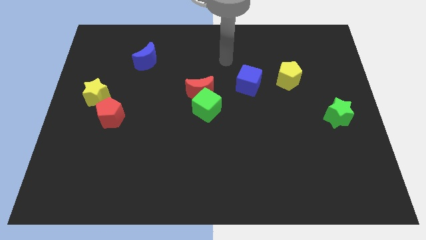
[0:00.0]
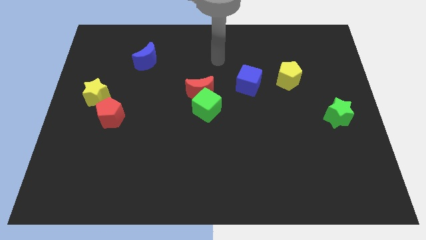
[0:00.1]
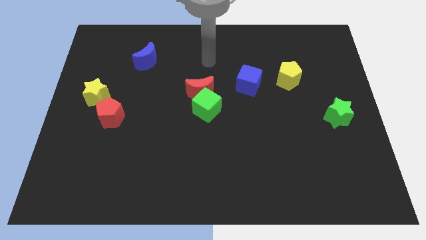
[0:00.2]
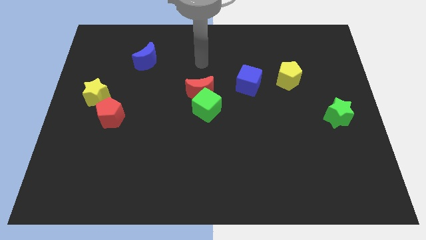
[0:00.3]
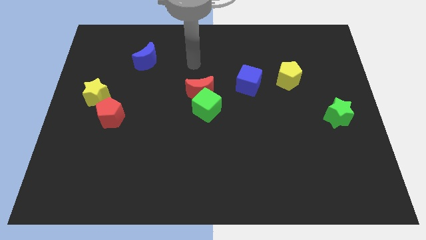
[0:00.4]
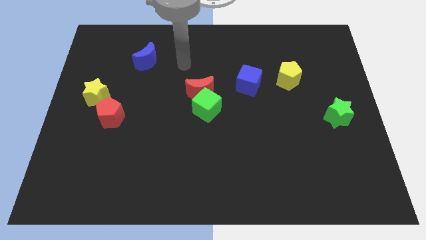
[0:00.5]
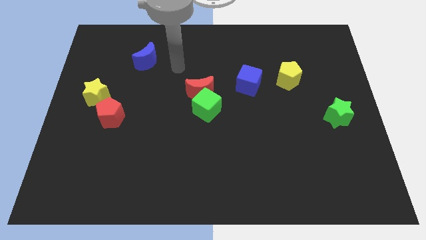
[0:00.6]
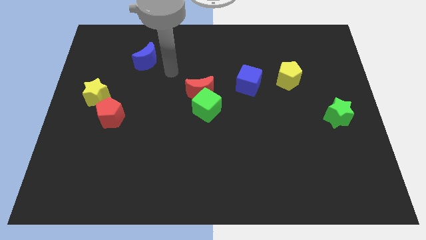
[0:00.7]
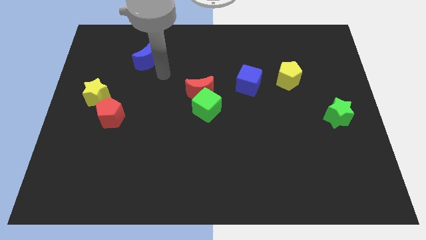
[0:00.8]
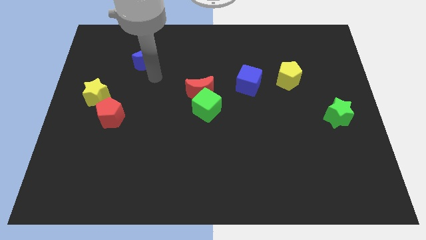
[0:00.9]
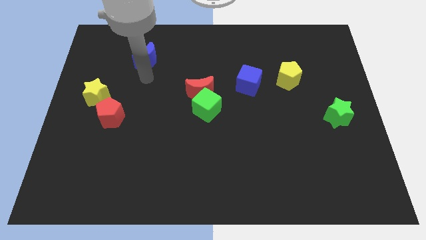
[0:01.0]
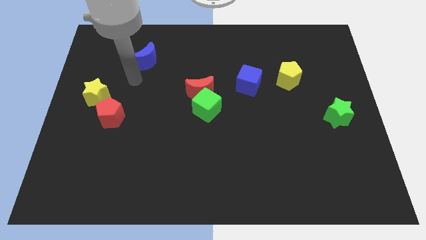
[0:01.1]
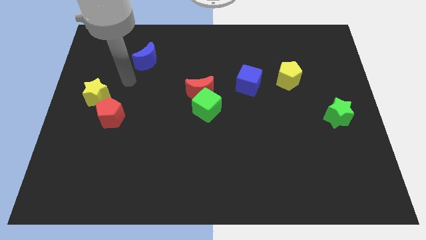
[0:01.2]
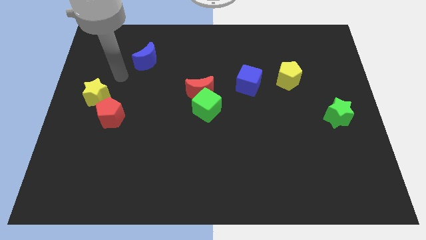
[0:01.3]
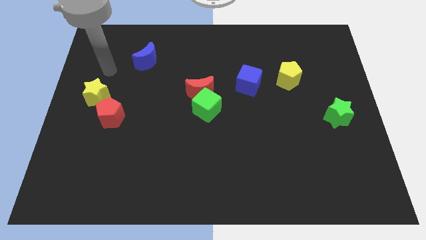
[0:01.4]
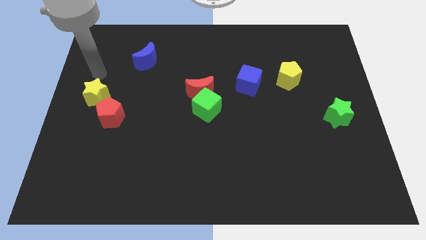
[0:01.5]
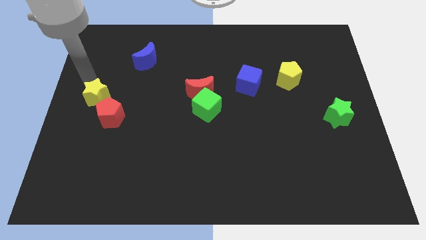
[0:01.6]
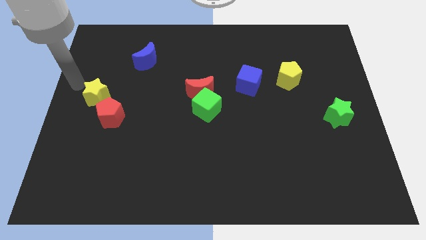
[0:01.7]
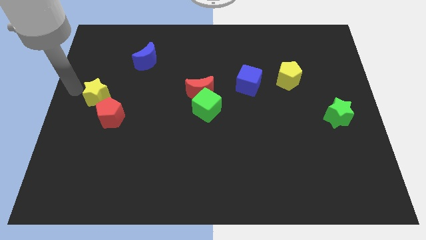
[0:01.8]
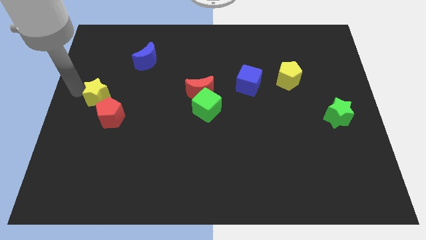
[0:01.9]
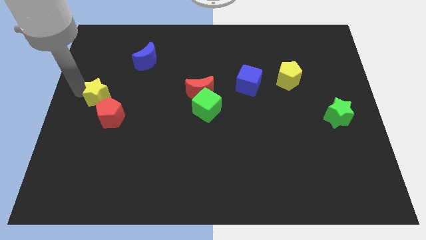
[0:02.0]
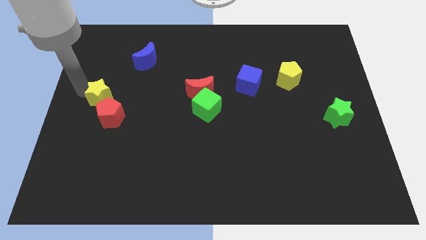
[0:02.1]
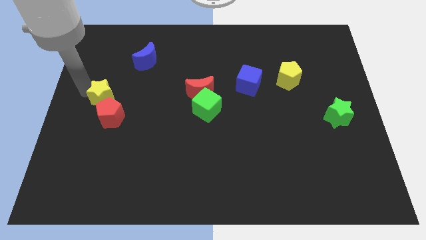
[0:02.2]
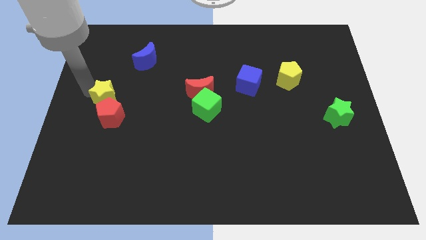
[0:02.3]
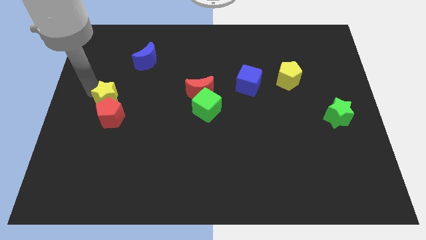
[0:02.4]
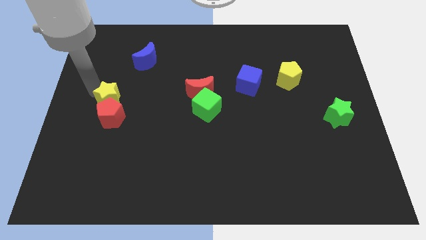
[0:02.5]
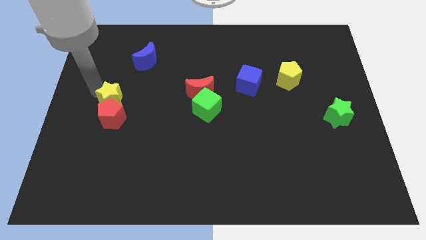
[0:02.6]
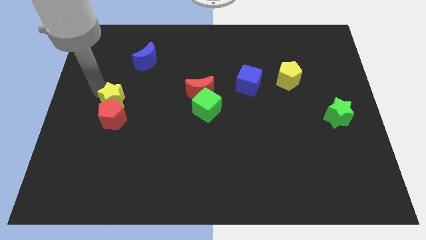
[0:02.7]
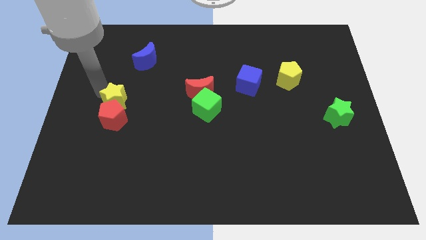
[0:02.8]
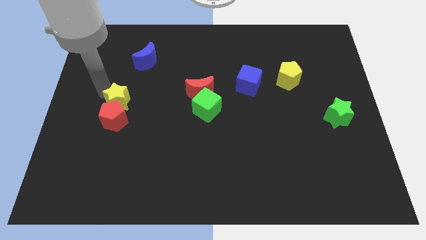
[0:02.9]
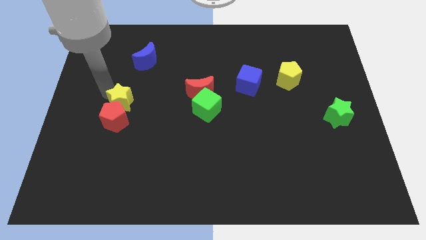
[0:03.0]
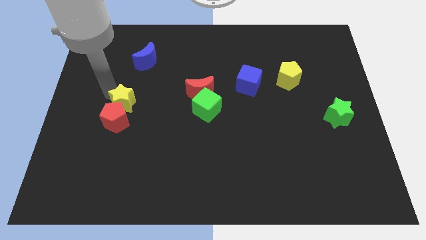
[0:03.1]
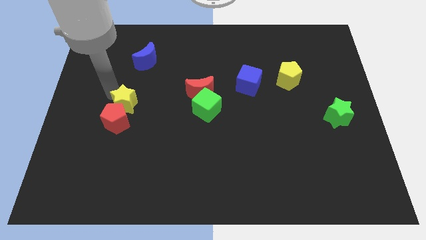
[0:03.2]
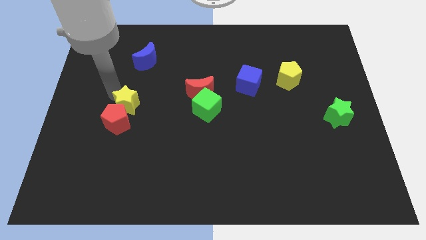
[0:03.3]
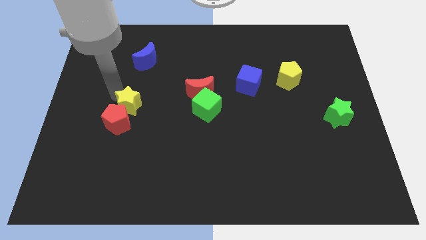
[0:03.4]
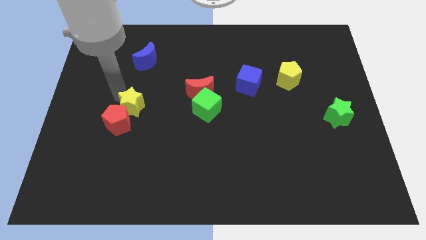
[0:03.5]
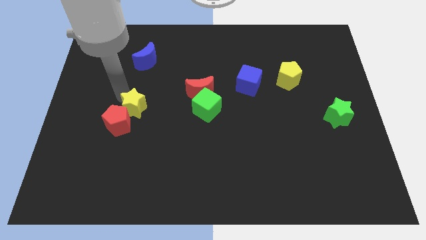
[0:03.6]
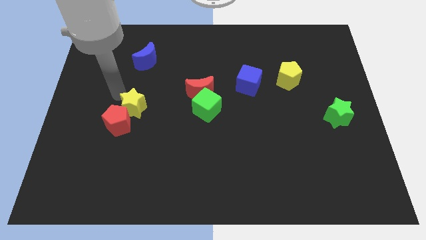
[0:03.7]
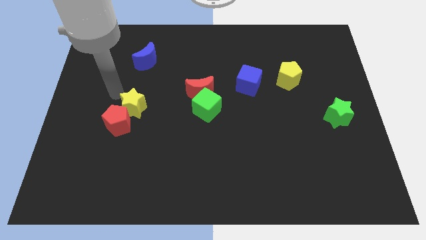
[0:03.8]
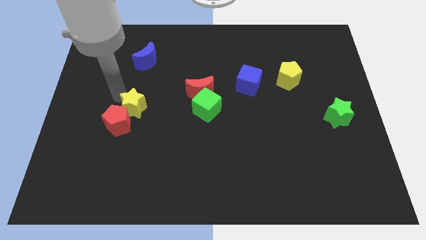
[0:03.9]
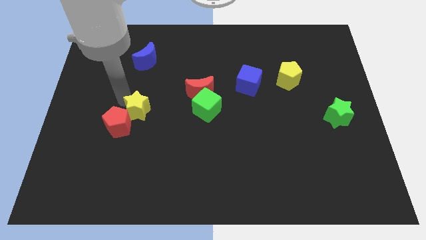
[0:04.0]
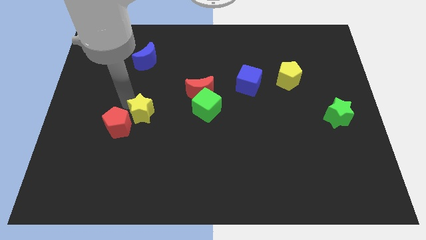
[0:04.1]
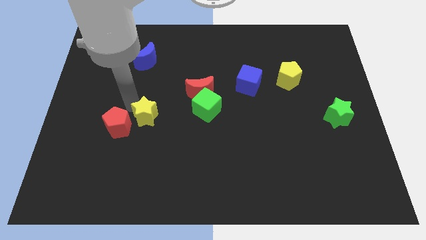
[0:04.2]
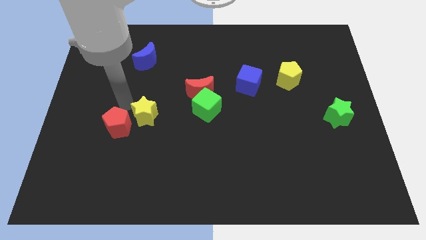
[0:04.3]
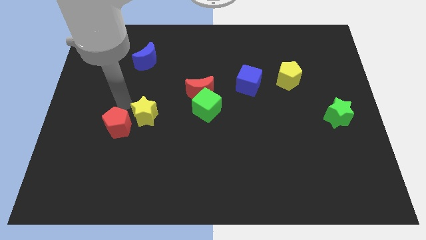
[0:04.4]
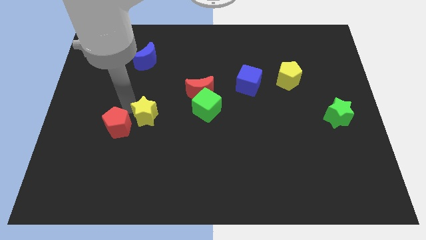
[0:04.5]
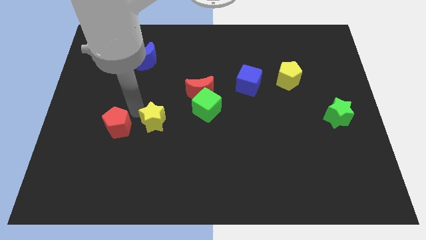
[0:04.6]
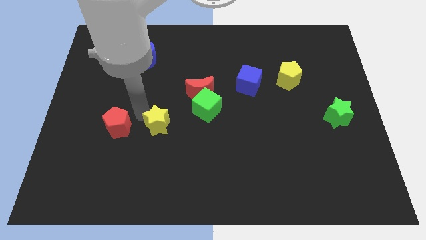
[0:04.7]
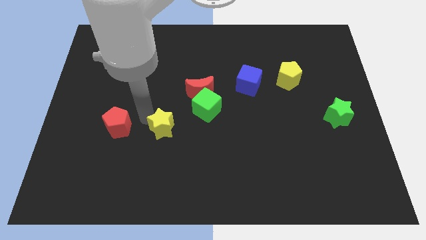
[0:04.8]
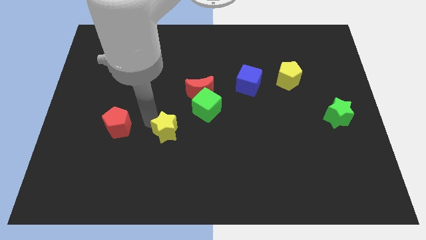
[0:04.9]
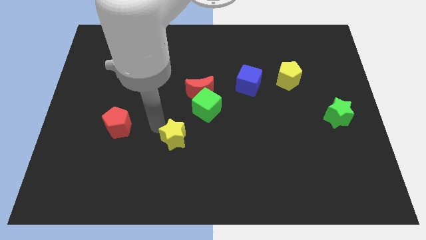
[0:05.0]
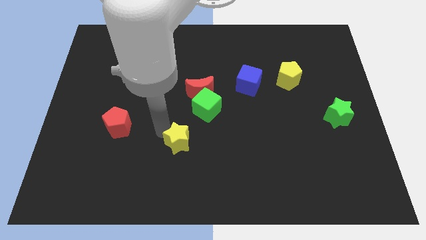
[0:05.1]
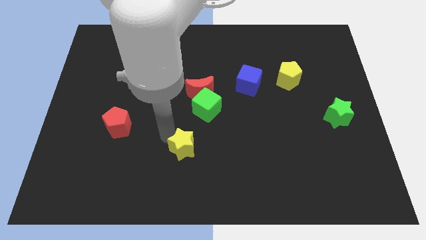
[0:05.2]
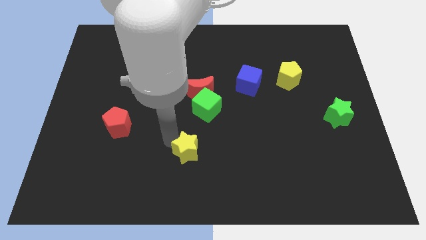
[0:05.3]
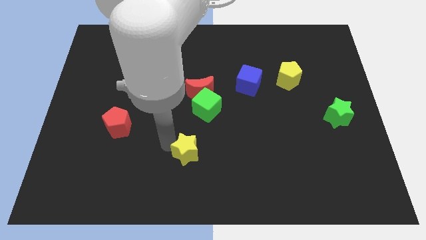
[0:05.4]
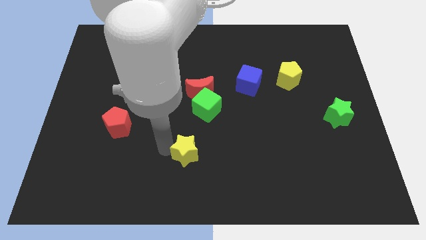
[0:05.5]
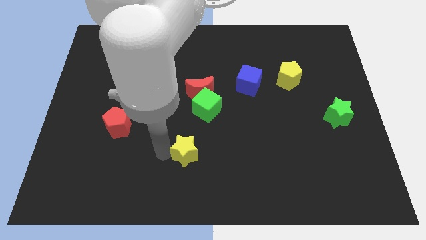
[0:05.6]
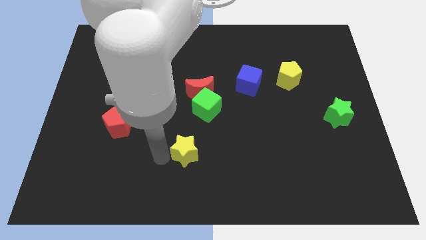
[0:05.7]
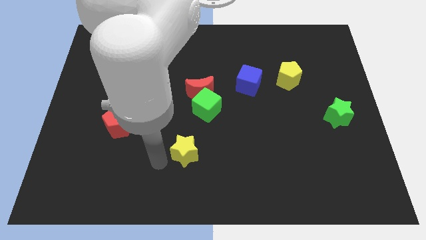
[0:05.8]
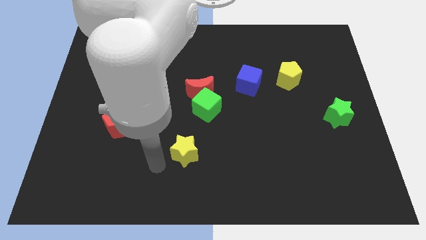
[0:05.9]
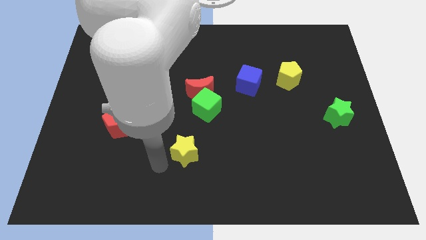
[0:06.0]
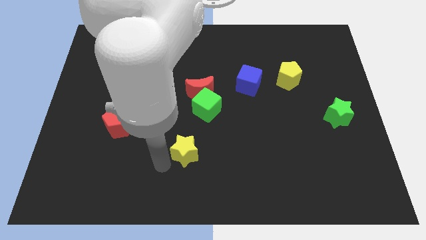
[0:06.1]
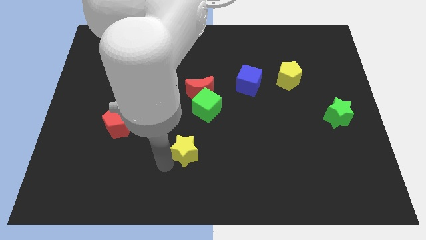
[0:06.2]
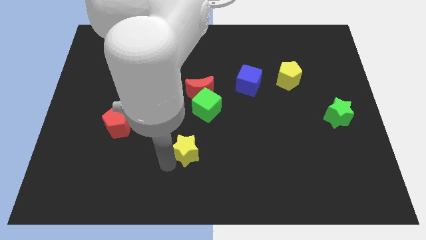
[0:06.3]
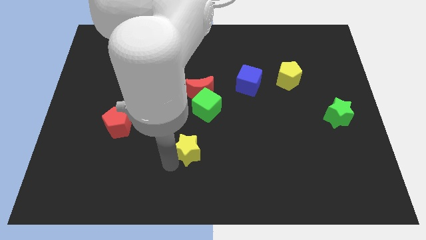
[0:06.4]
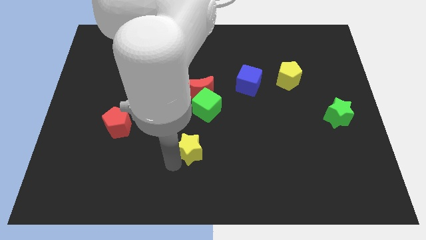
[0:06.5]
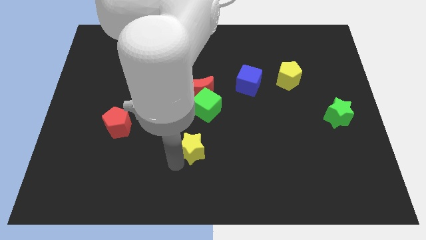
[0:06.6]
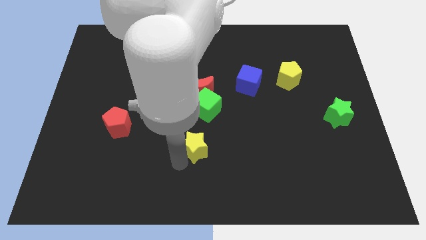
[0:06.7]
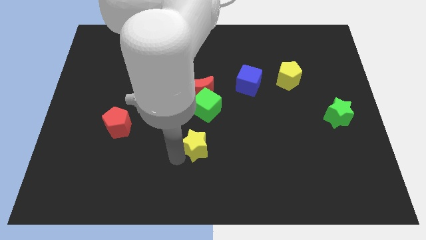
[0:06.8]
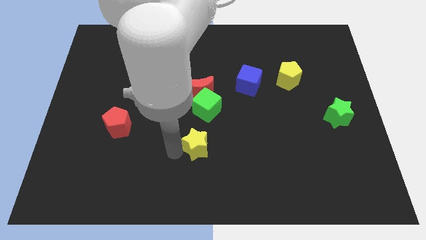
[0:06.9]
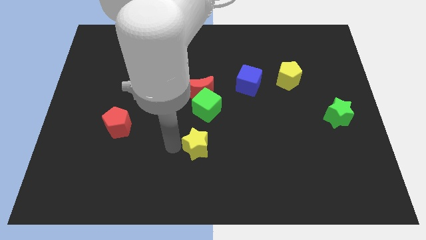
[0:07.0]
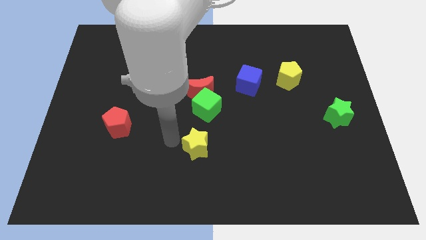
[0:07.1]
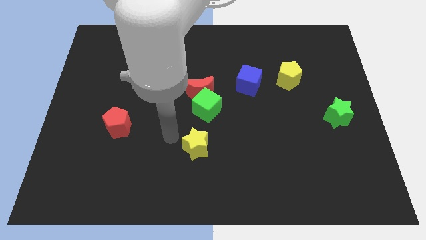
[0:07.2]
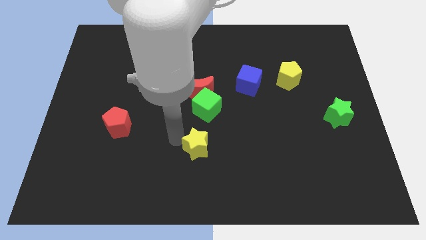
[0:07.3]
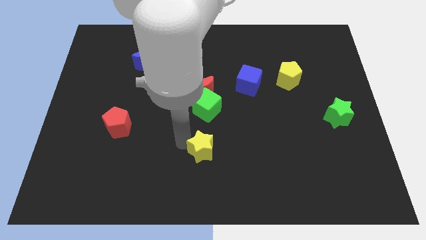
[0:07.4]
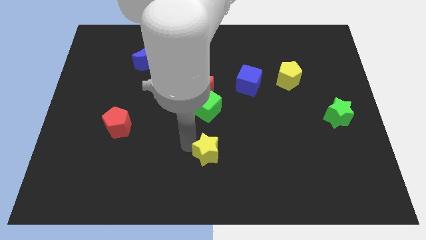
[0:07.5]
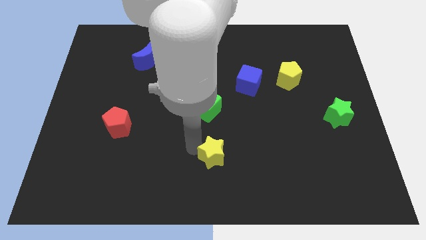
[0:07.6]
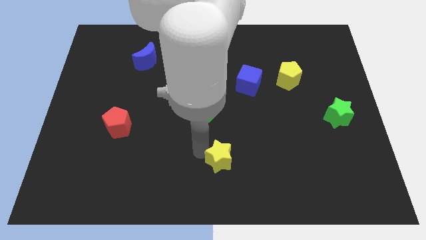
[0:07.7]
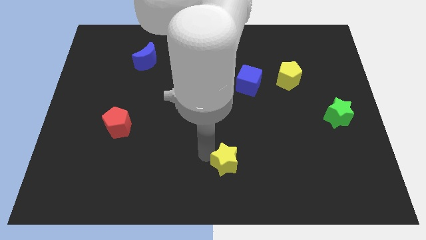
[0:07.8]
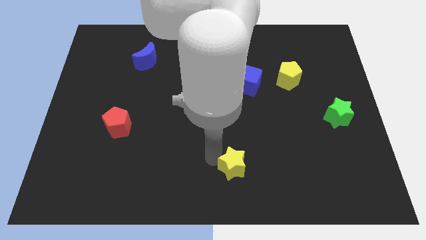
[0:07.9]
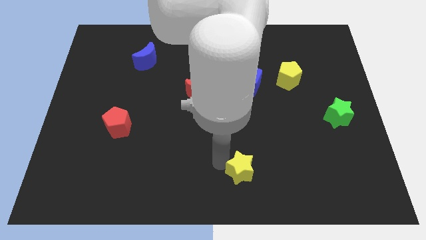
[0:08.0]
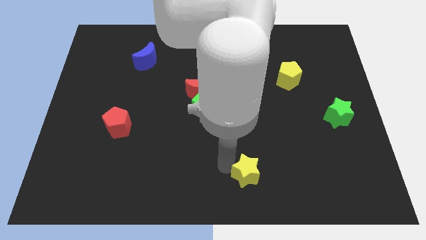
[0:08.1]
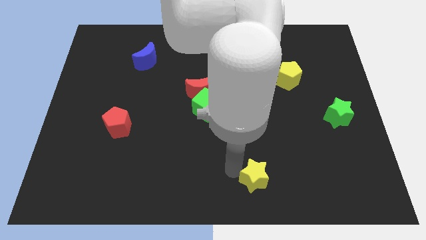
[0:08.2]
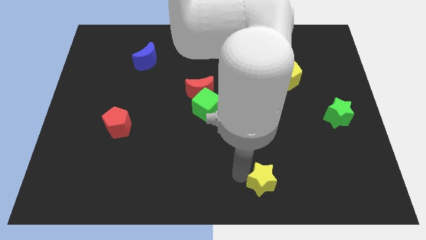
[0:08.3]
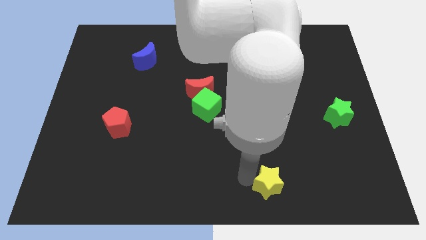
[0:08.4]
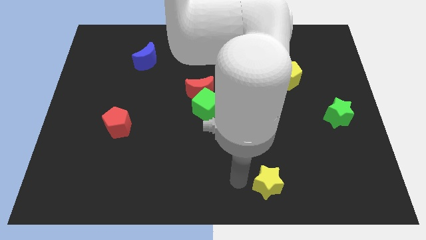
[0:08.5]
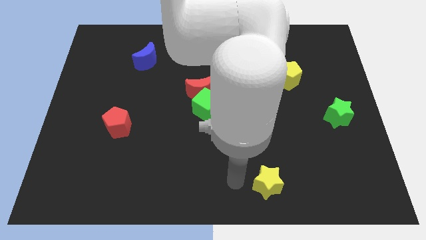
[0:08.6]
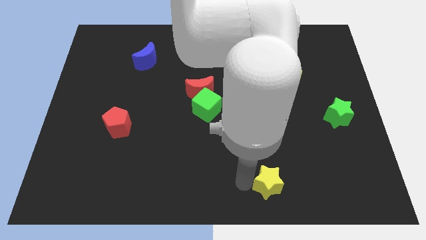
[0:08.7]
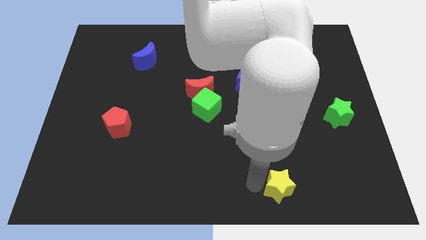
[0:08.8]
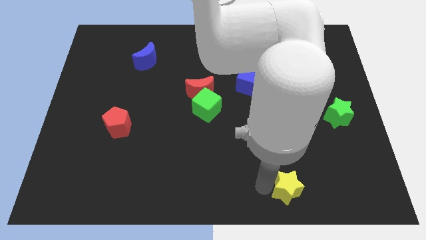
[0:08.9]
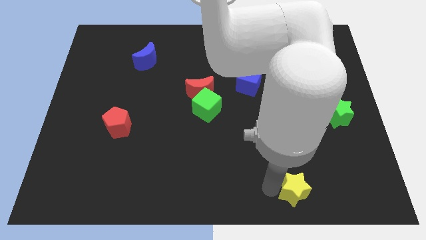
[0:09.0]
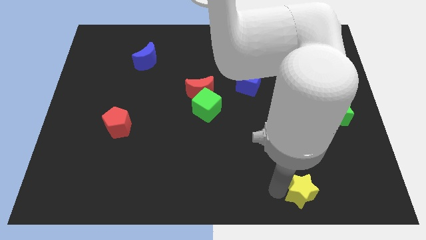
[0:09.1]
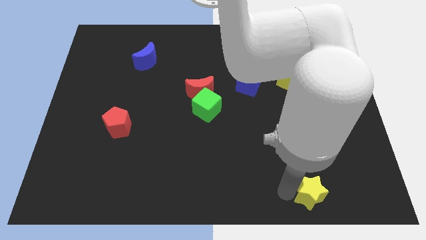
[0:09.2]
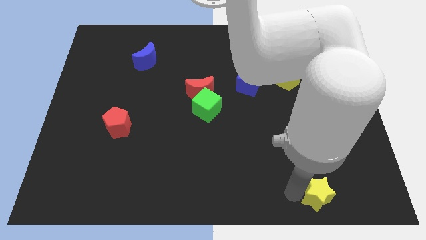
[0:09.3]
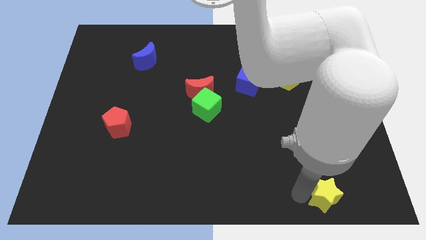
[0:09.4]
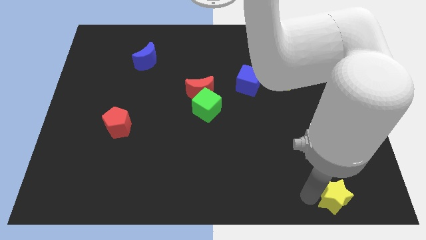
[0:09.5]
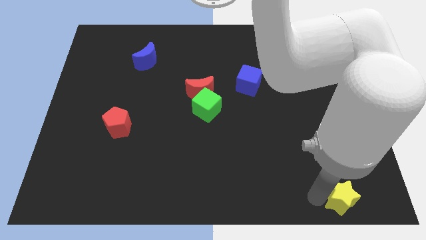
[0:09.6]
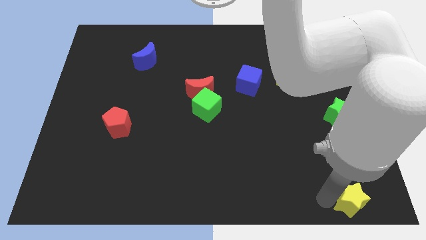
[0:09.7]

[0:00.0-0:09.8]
put the yellow star to the bottom right
